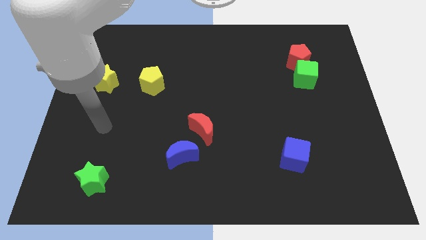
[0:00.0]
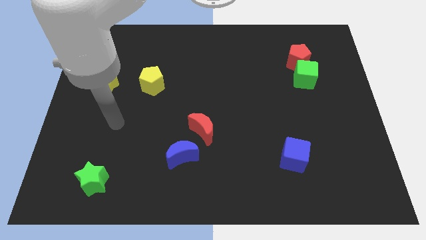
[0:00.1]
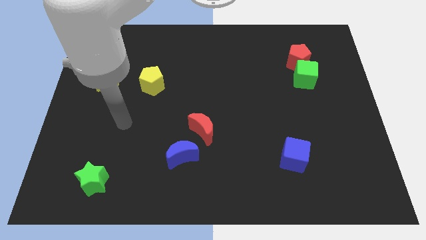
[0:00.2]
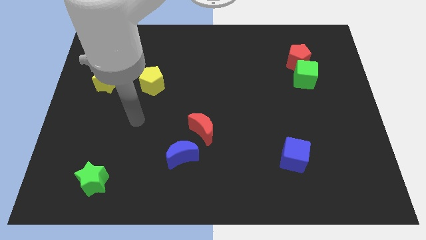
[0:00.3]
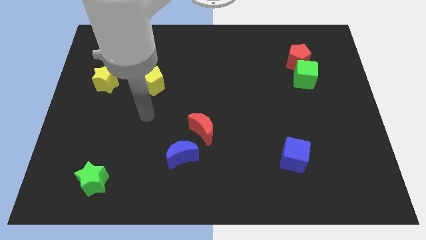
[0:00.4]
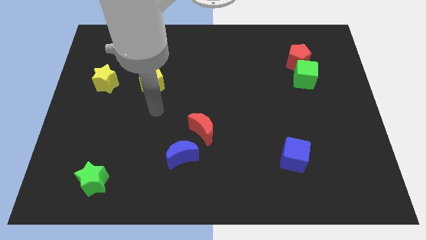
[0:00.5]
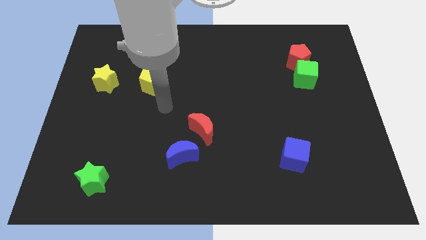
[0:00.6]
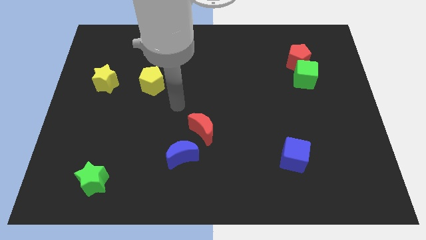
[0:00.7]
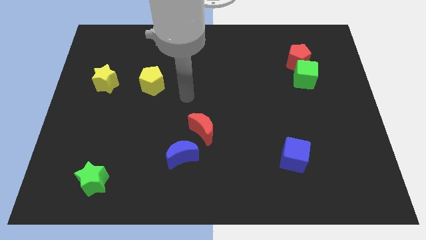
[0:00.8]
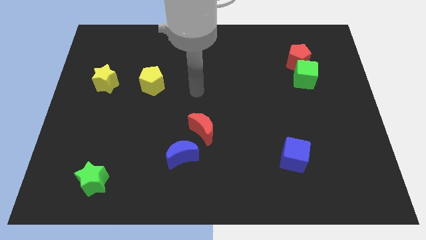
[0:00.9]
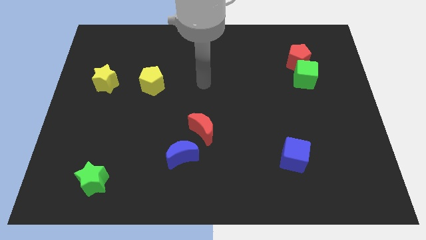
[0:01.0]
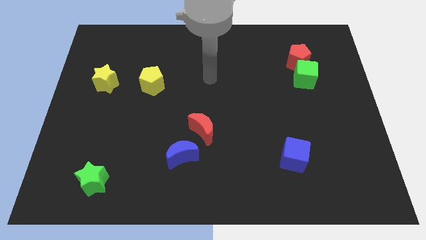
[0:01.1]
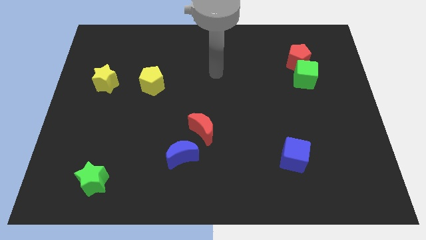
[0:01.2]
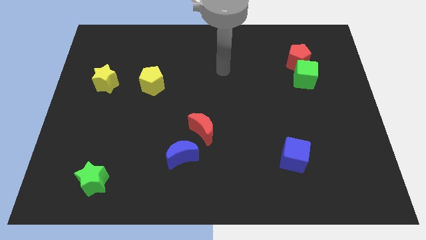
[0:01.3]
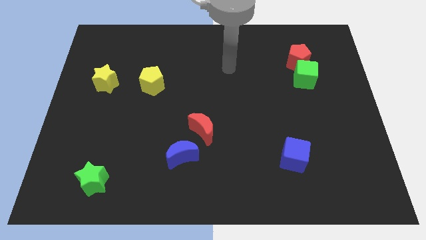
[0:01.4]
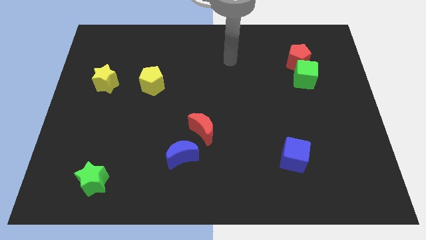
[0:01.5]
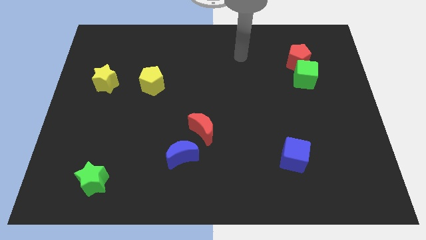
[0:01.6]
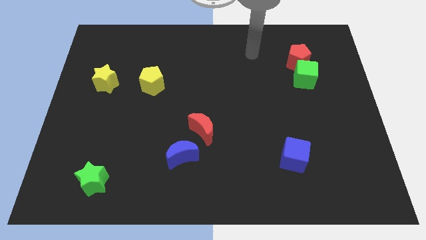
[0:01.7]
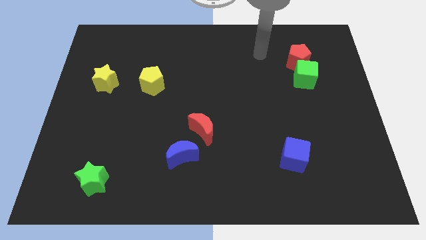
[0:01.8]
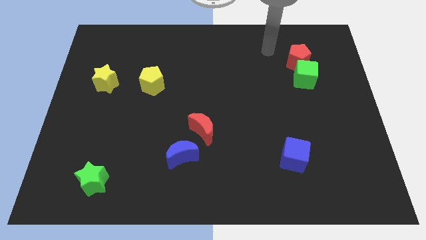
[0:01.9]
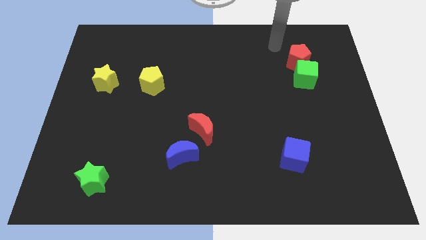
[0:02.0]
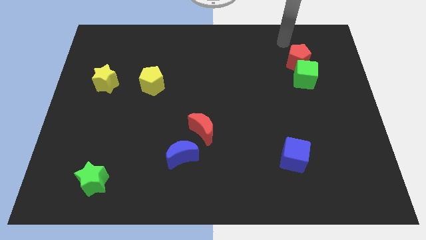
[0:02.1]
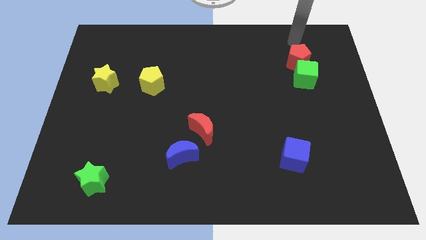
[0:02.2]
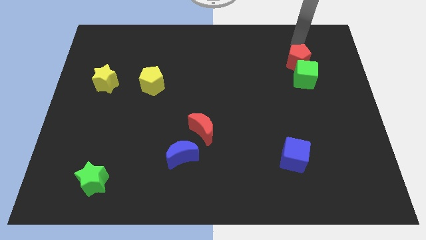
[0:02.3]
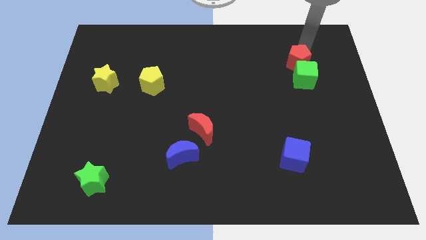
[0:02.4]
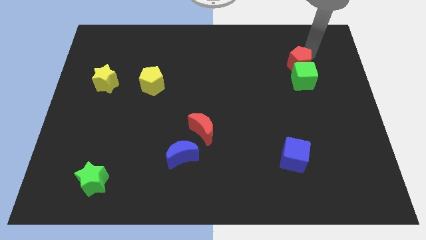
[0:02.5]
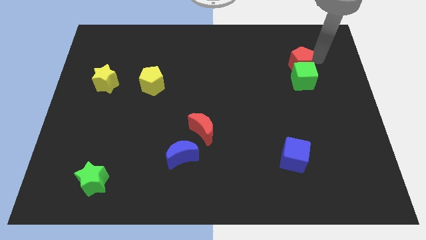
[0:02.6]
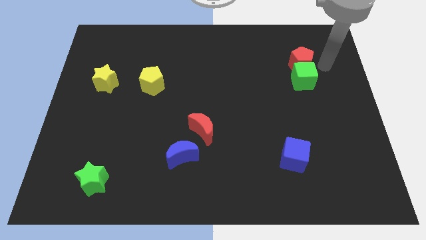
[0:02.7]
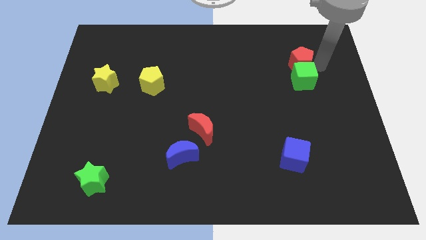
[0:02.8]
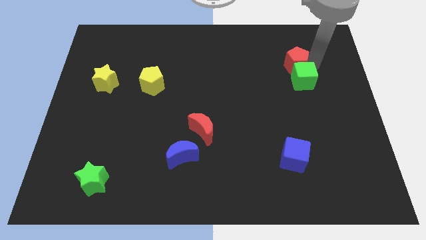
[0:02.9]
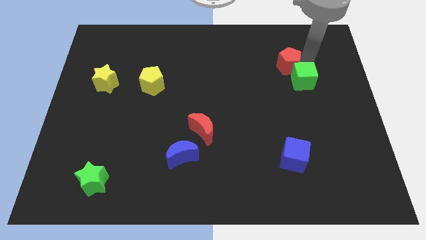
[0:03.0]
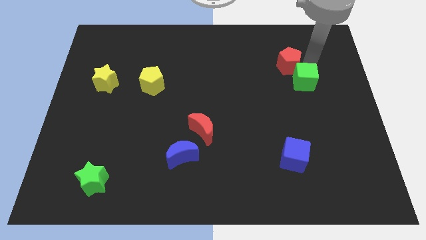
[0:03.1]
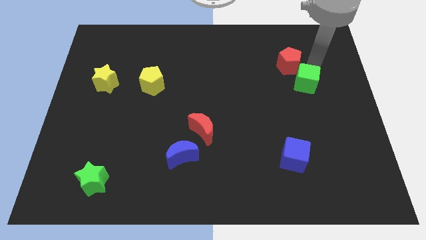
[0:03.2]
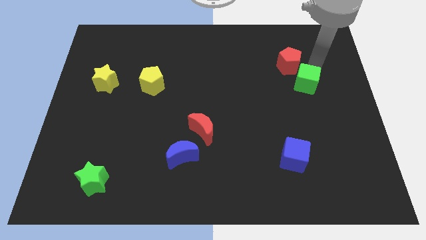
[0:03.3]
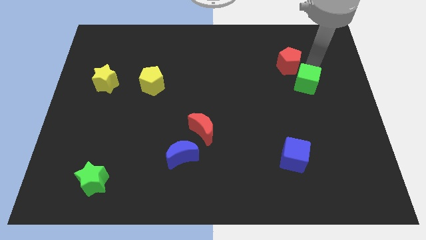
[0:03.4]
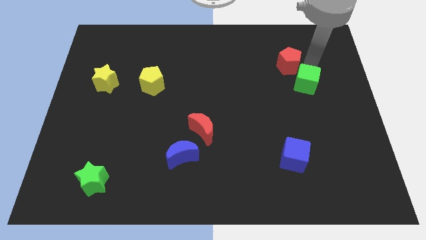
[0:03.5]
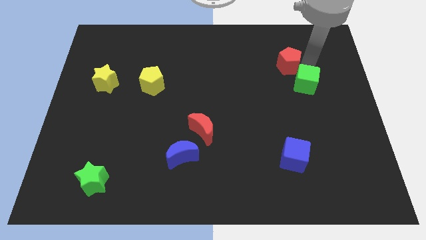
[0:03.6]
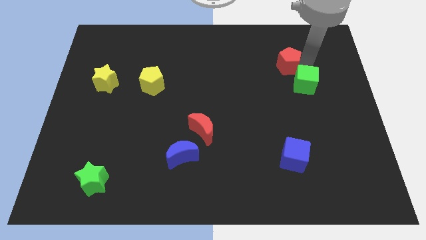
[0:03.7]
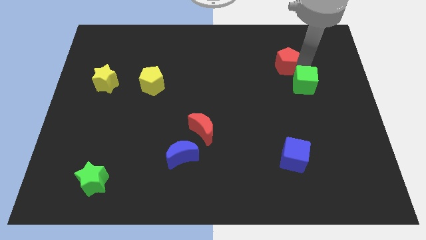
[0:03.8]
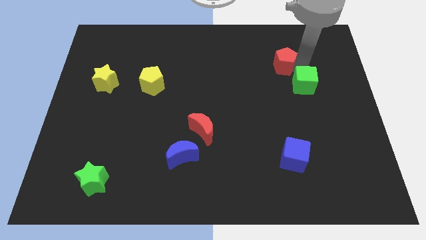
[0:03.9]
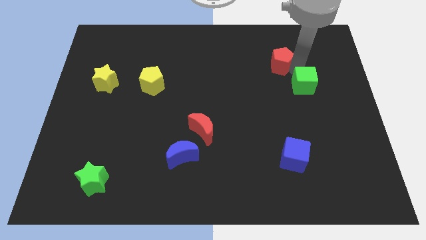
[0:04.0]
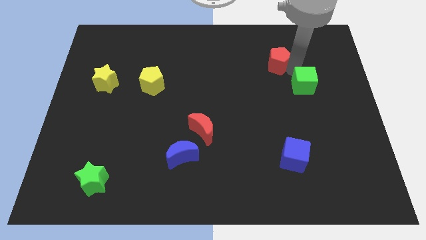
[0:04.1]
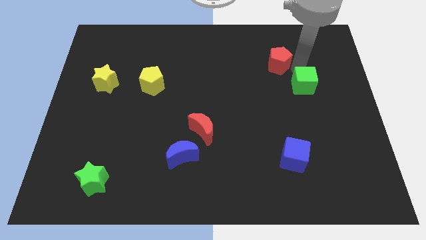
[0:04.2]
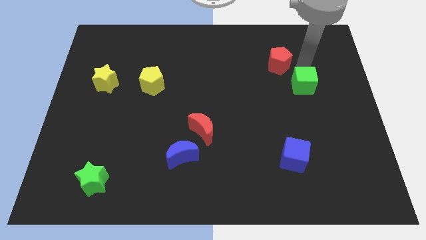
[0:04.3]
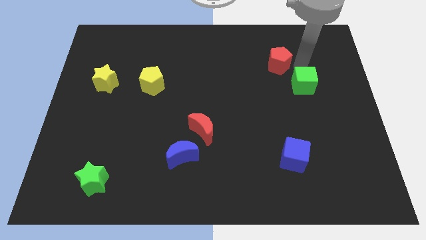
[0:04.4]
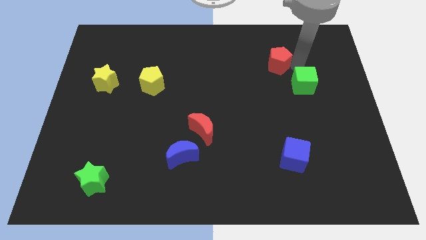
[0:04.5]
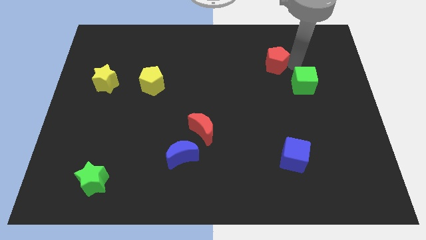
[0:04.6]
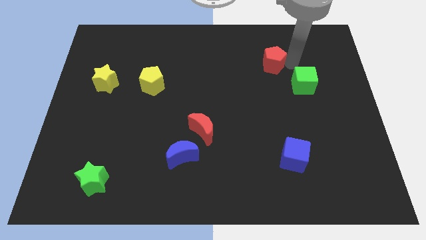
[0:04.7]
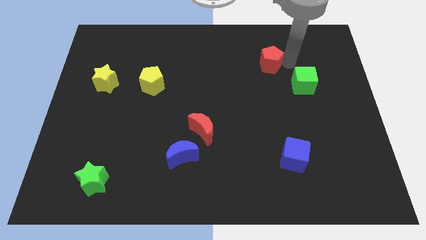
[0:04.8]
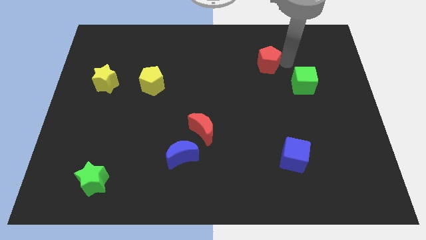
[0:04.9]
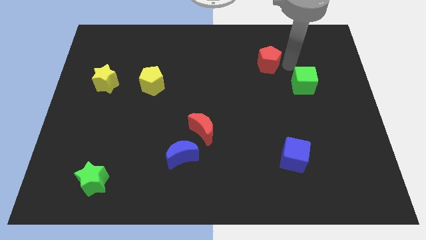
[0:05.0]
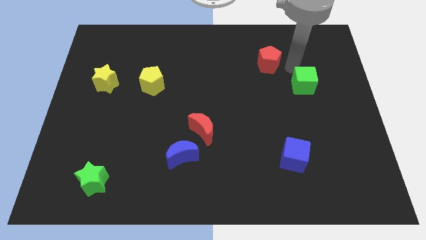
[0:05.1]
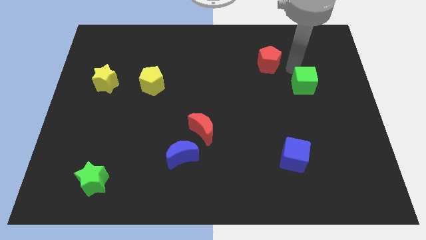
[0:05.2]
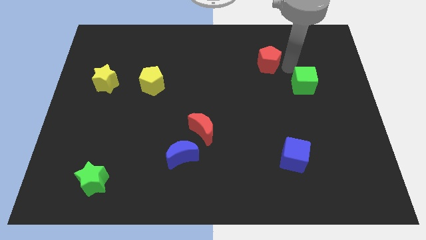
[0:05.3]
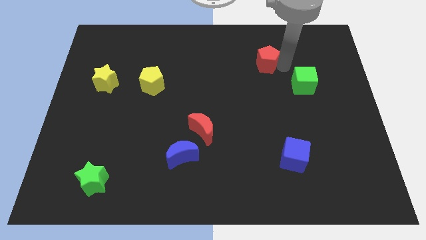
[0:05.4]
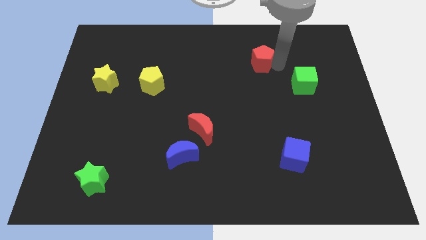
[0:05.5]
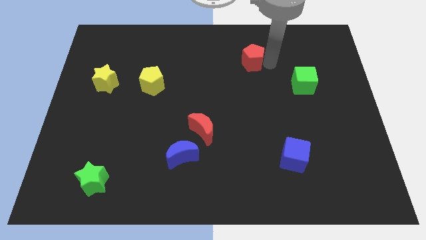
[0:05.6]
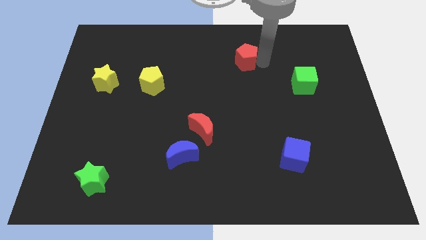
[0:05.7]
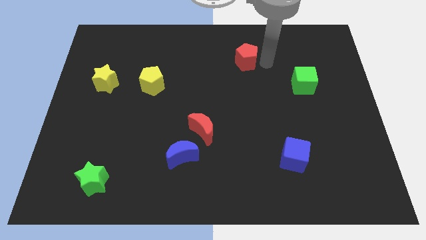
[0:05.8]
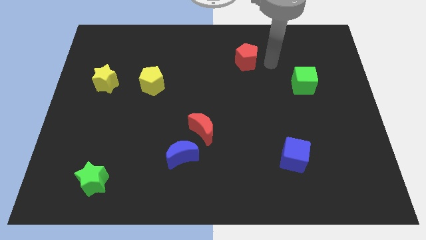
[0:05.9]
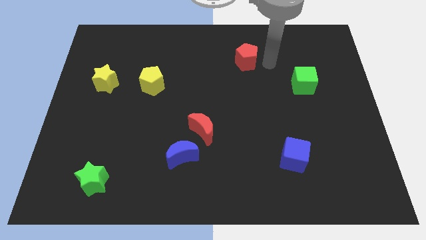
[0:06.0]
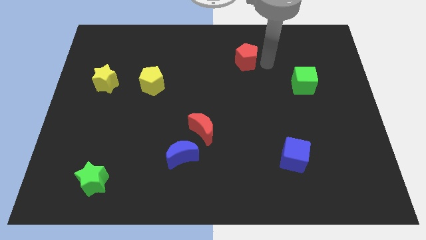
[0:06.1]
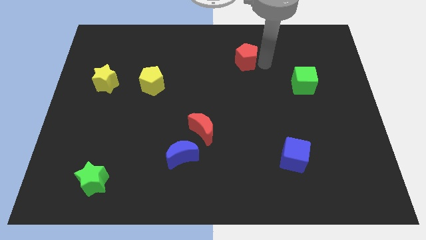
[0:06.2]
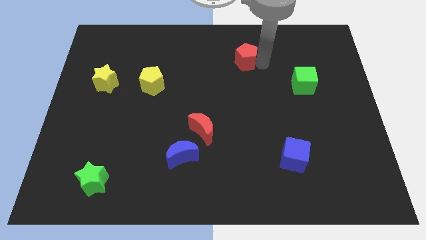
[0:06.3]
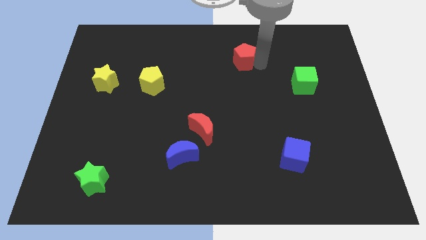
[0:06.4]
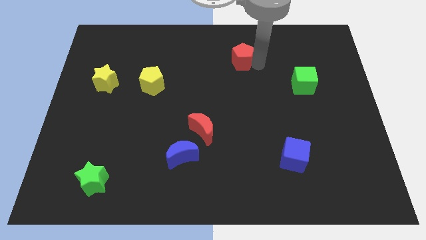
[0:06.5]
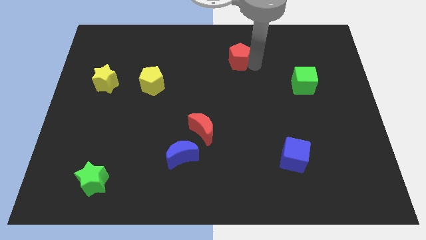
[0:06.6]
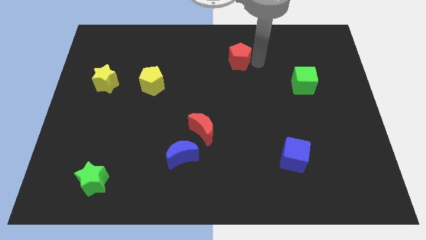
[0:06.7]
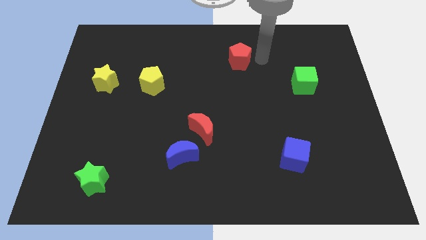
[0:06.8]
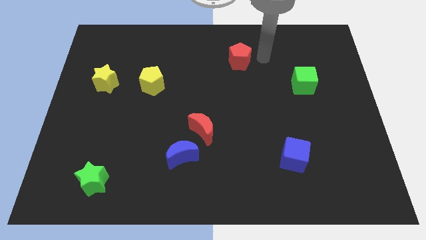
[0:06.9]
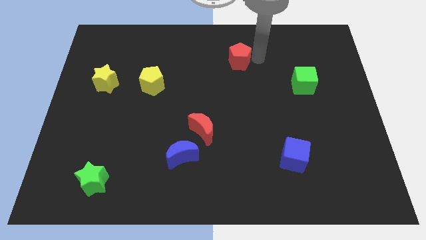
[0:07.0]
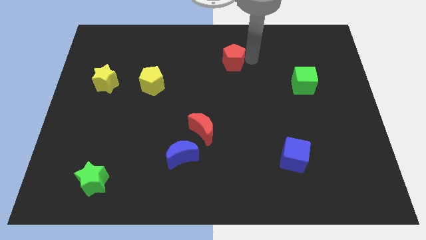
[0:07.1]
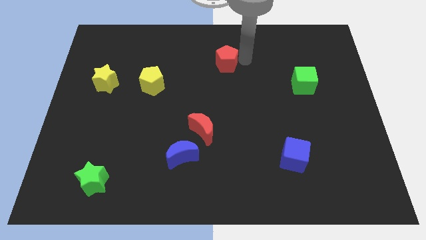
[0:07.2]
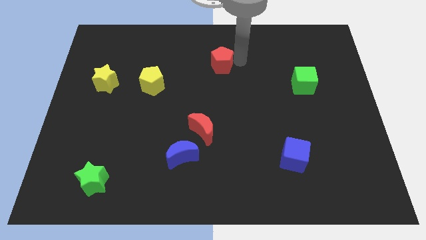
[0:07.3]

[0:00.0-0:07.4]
slide the red pentagon to the left

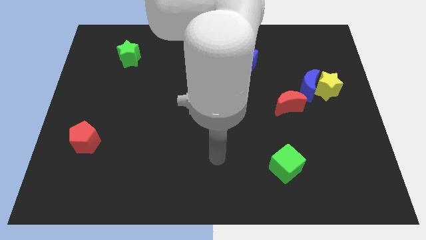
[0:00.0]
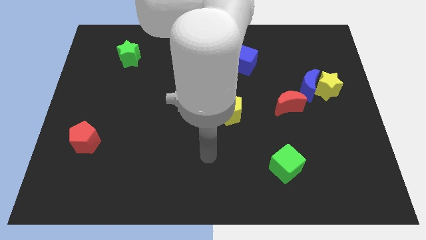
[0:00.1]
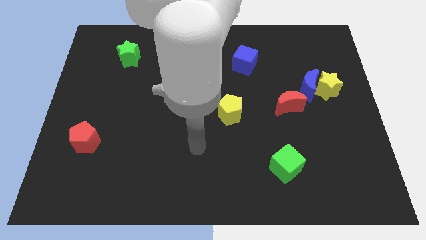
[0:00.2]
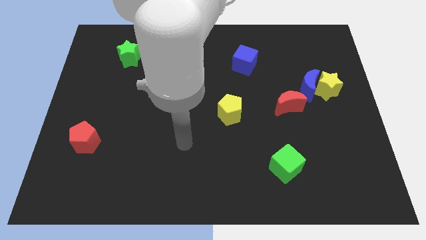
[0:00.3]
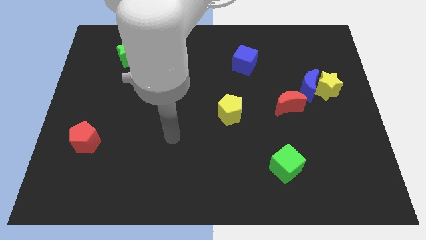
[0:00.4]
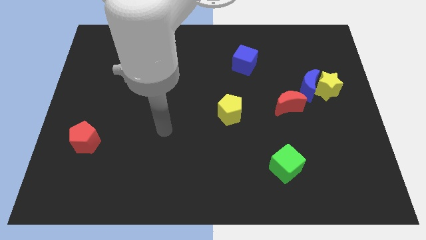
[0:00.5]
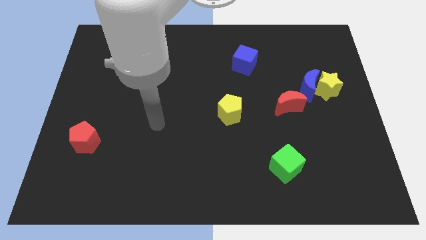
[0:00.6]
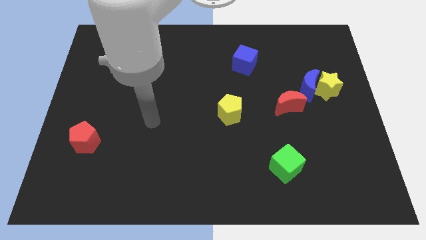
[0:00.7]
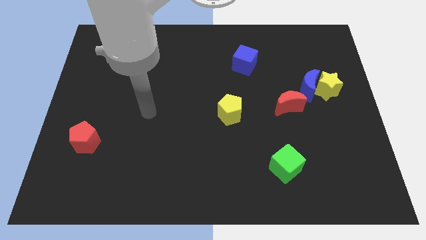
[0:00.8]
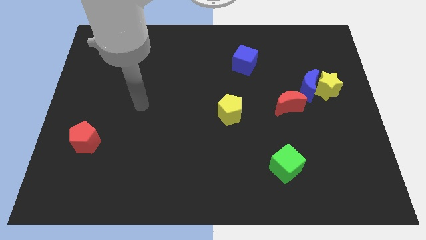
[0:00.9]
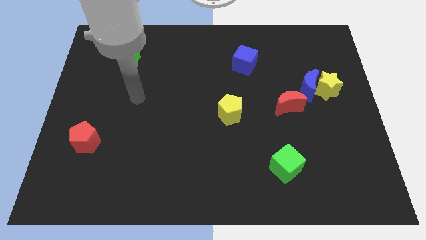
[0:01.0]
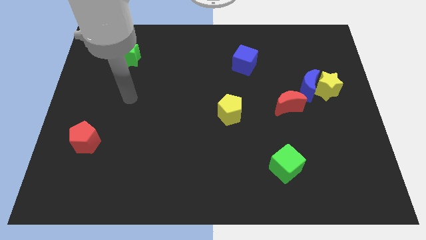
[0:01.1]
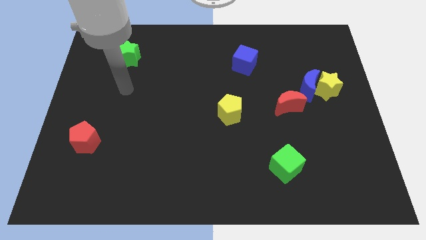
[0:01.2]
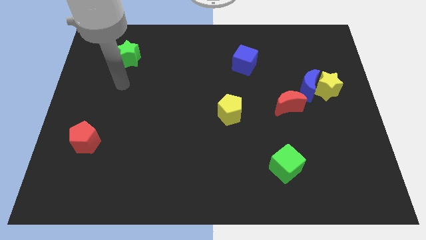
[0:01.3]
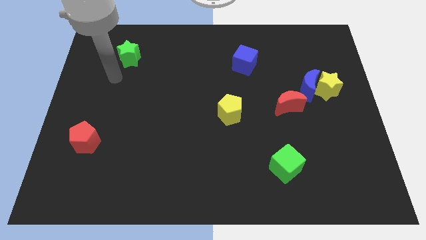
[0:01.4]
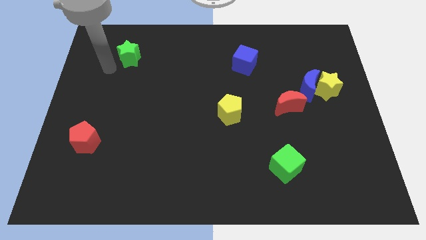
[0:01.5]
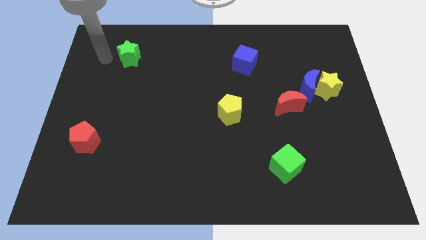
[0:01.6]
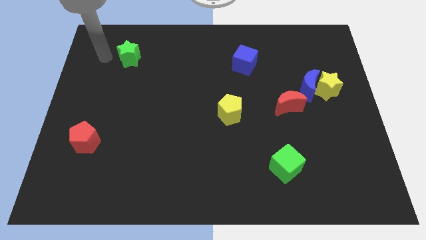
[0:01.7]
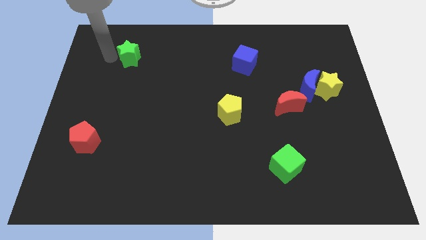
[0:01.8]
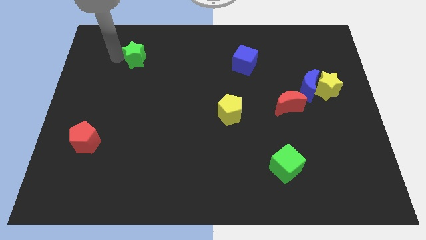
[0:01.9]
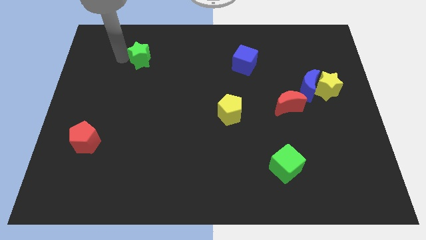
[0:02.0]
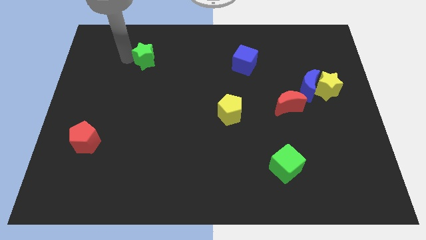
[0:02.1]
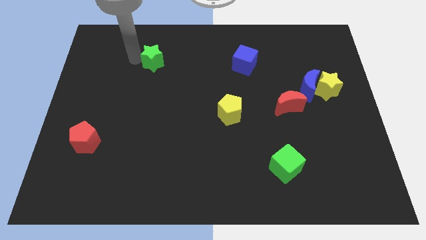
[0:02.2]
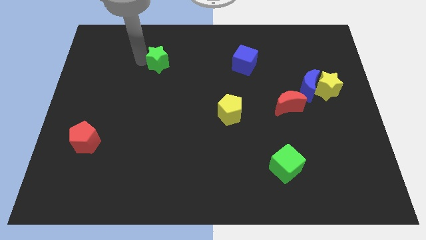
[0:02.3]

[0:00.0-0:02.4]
push the green star right slightly
